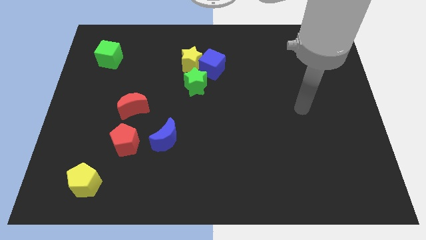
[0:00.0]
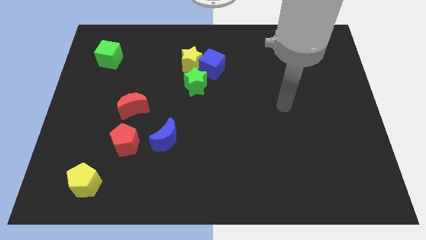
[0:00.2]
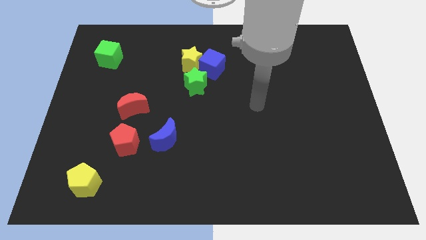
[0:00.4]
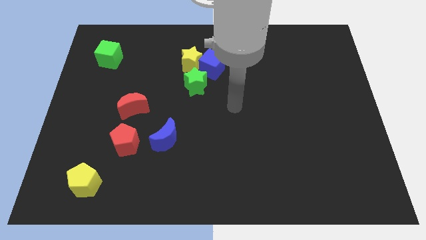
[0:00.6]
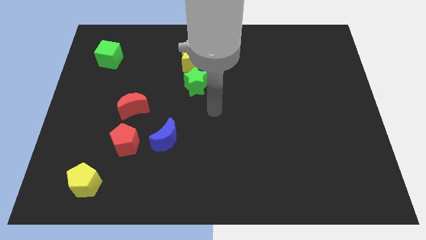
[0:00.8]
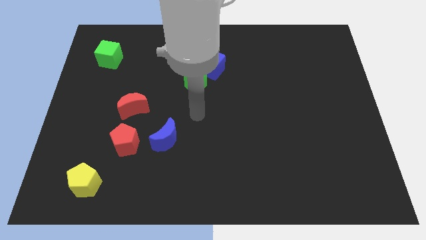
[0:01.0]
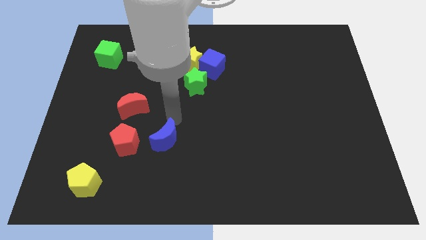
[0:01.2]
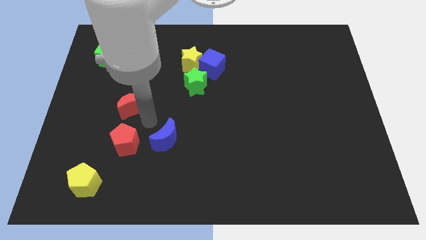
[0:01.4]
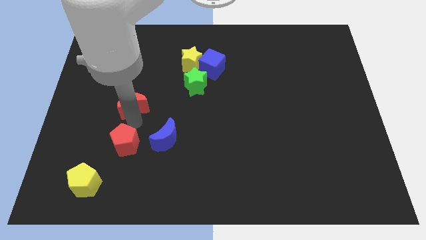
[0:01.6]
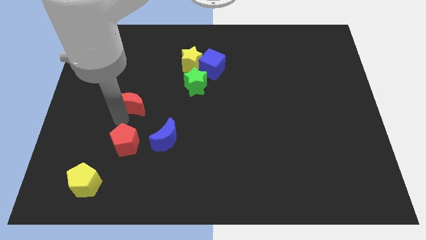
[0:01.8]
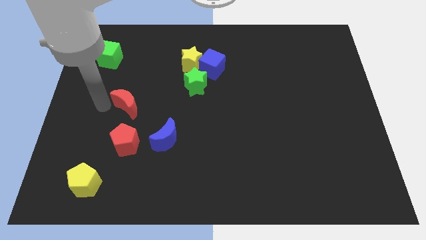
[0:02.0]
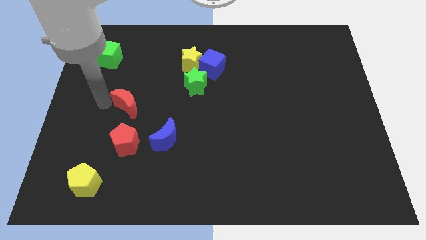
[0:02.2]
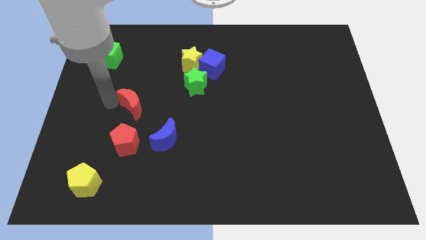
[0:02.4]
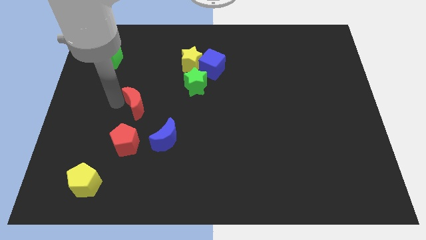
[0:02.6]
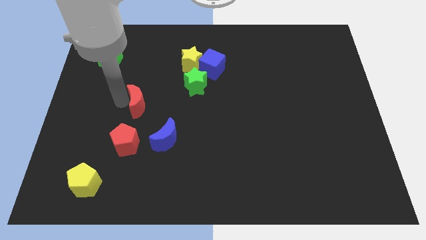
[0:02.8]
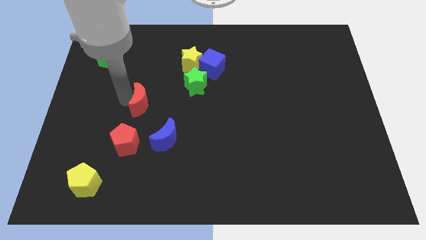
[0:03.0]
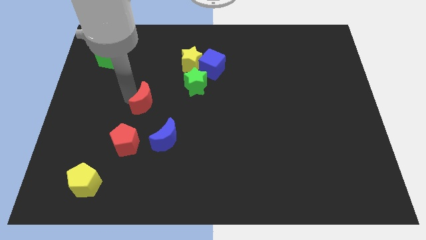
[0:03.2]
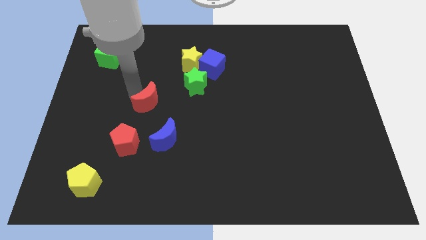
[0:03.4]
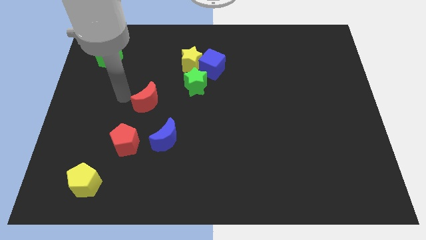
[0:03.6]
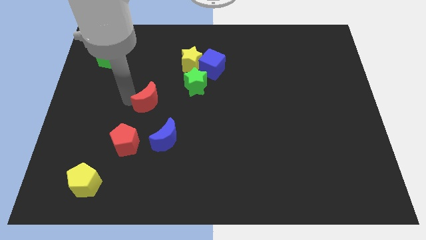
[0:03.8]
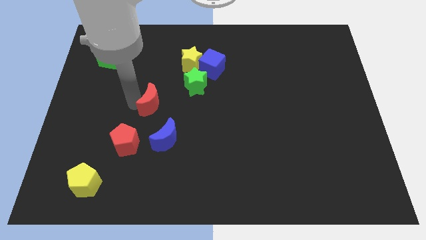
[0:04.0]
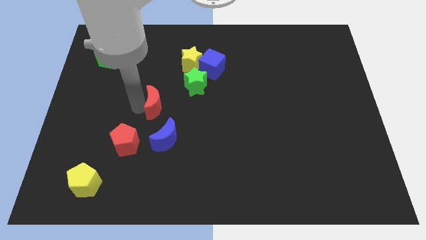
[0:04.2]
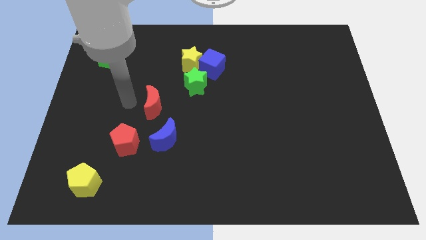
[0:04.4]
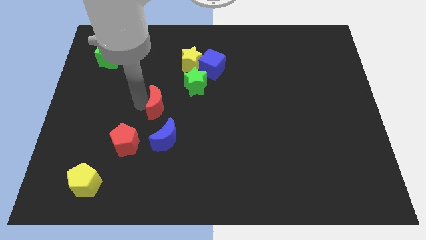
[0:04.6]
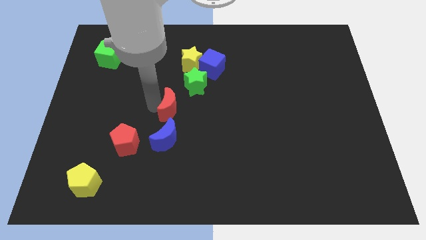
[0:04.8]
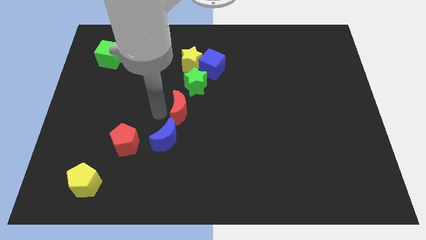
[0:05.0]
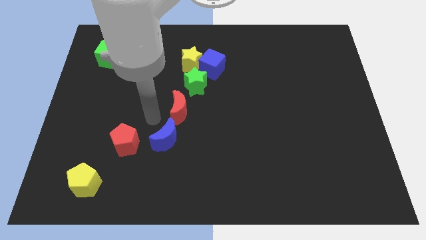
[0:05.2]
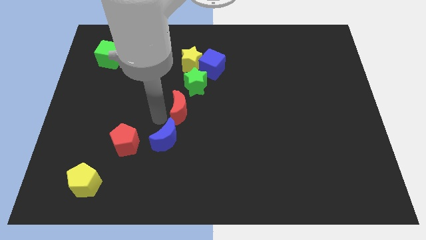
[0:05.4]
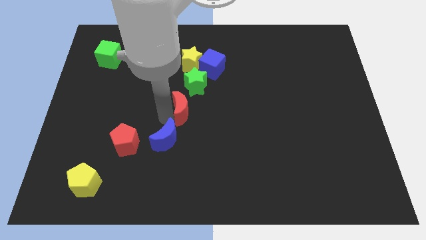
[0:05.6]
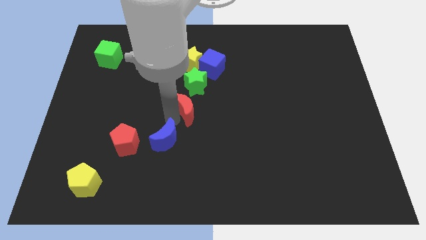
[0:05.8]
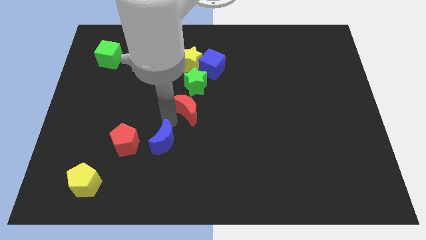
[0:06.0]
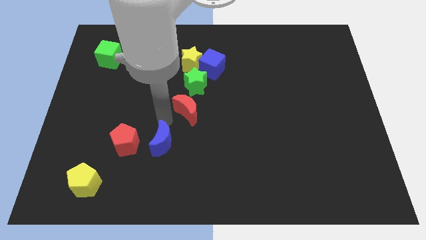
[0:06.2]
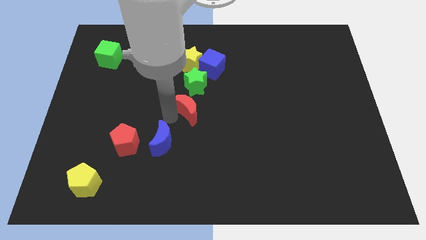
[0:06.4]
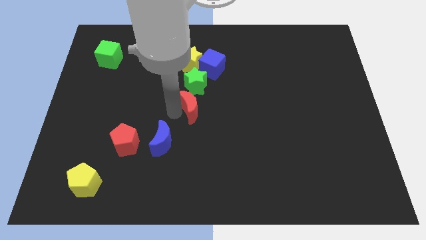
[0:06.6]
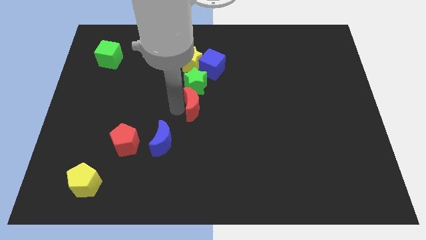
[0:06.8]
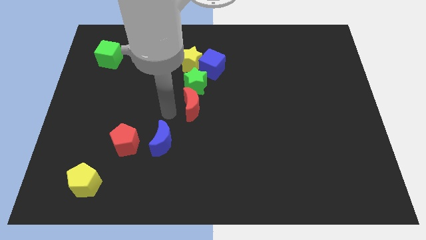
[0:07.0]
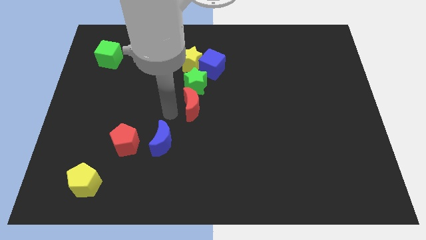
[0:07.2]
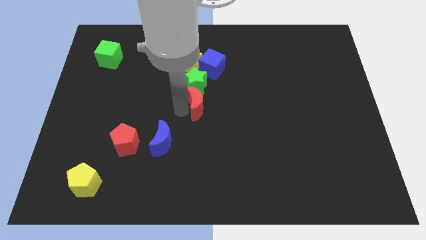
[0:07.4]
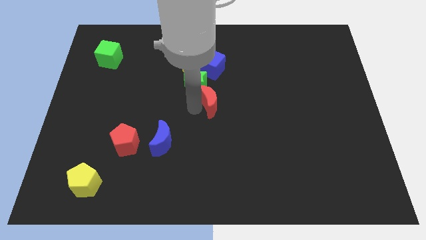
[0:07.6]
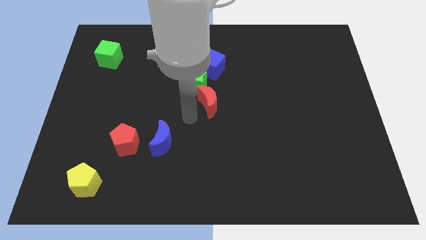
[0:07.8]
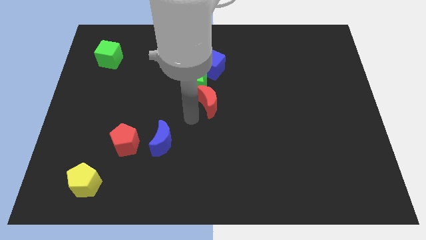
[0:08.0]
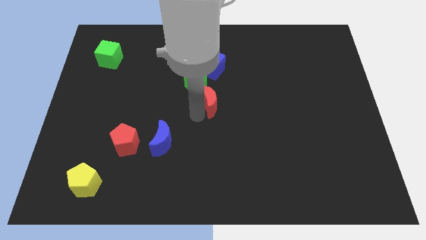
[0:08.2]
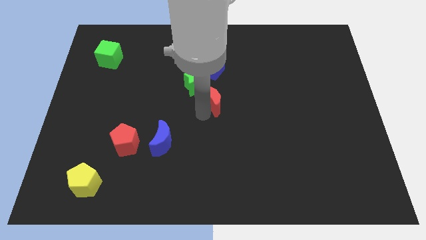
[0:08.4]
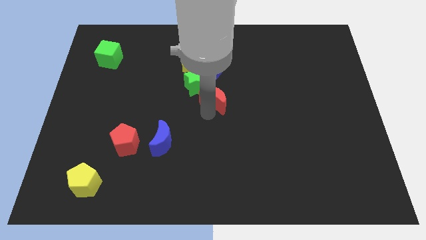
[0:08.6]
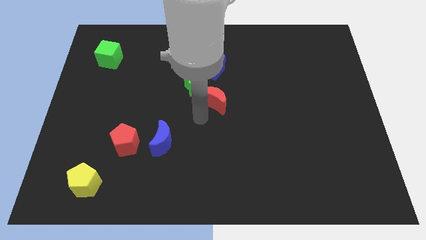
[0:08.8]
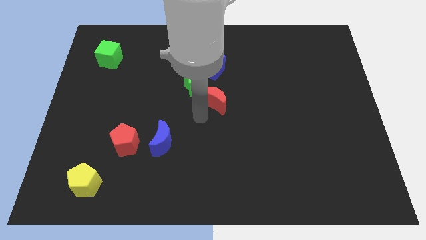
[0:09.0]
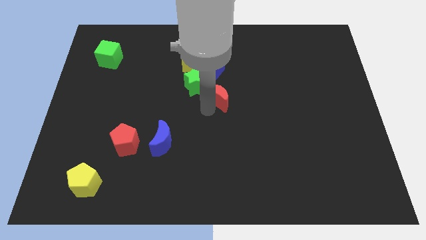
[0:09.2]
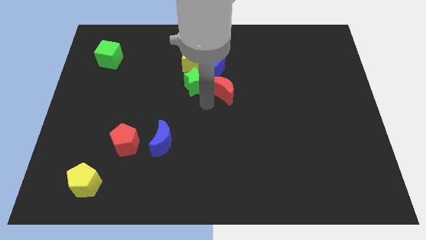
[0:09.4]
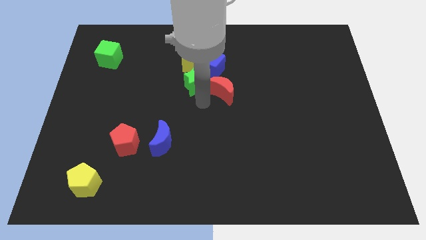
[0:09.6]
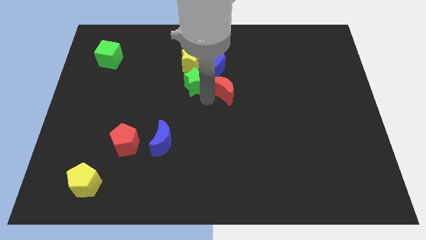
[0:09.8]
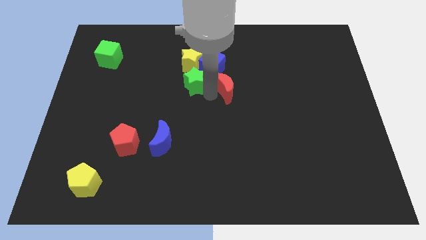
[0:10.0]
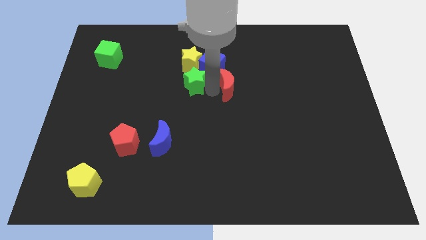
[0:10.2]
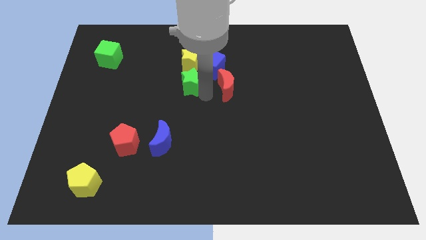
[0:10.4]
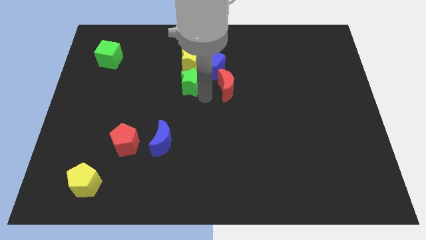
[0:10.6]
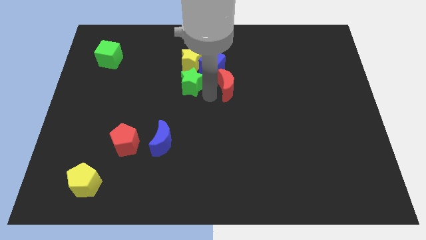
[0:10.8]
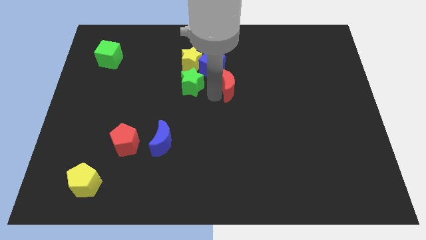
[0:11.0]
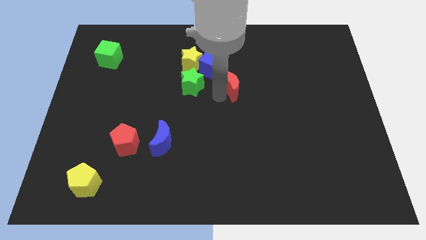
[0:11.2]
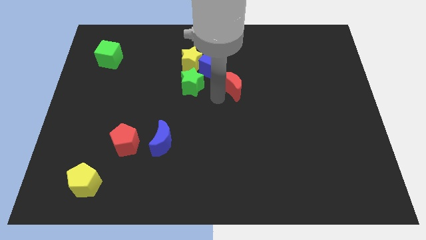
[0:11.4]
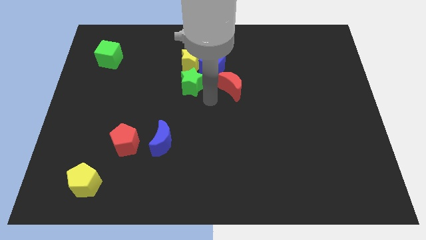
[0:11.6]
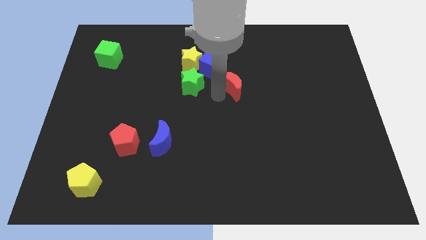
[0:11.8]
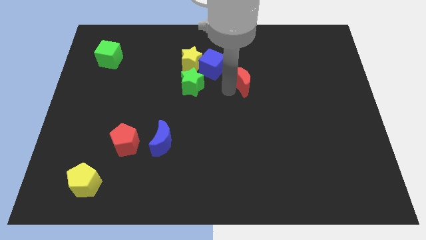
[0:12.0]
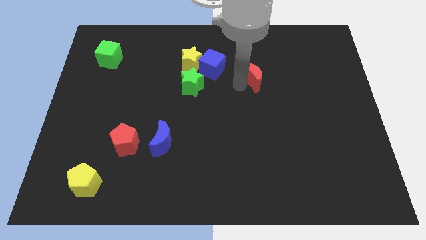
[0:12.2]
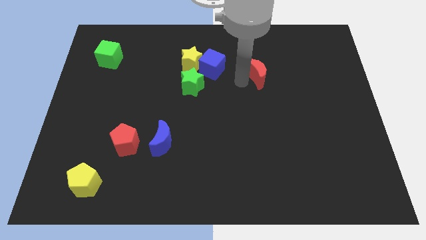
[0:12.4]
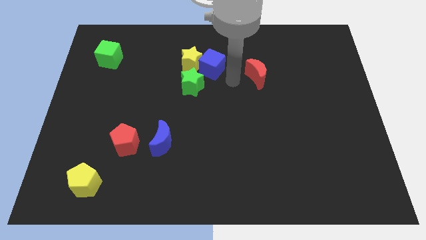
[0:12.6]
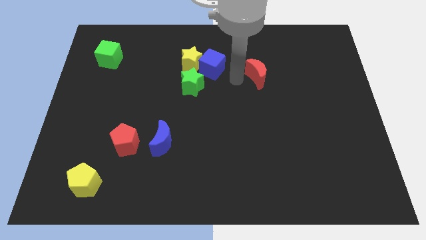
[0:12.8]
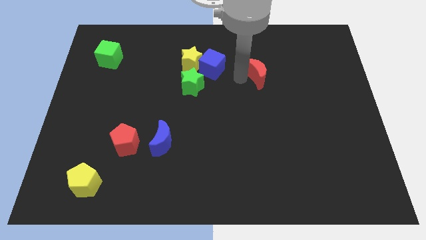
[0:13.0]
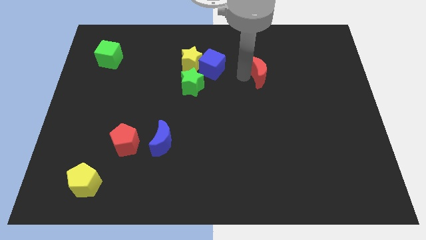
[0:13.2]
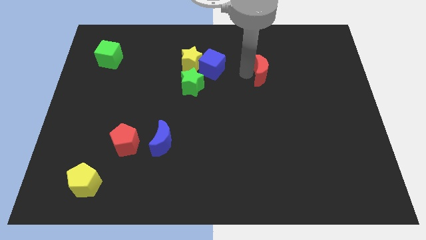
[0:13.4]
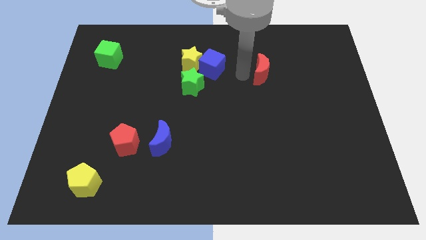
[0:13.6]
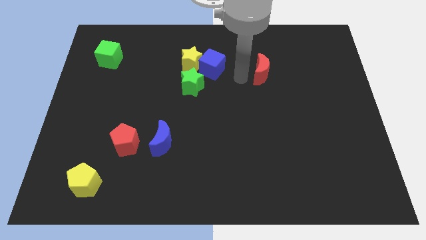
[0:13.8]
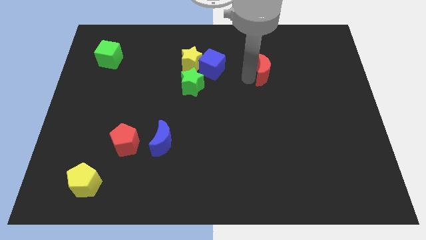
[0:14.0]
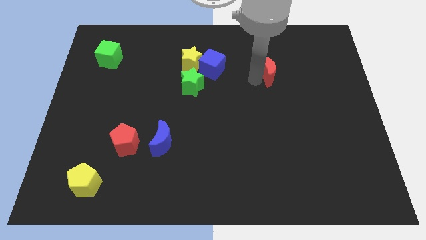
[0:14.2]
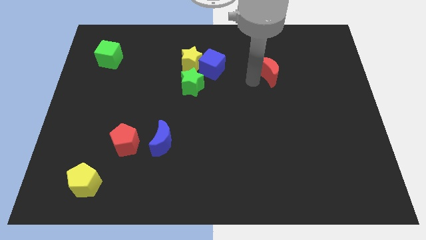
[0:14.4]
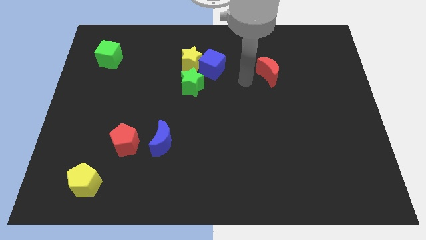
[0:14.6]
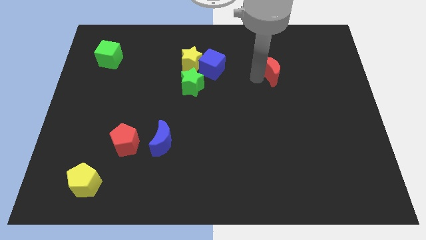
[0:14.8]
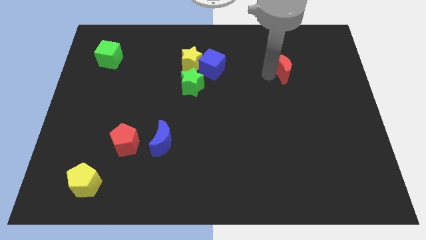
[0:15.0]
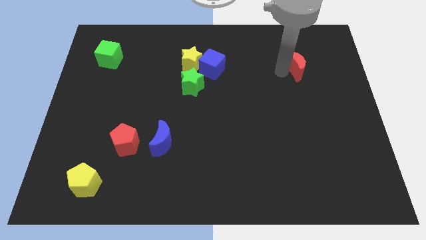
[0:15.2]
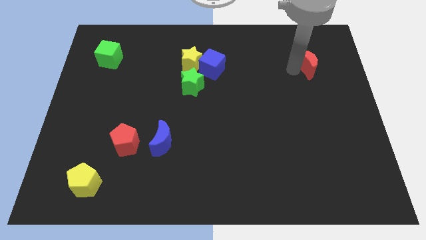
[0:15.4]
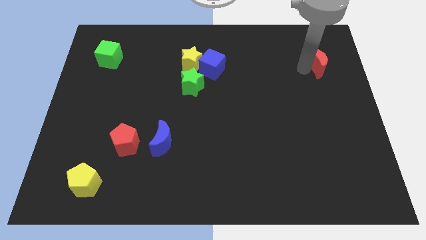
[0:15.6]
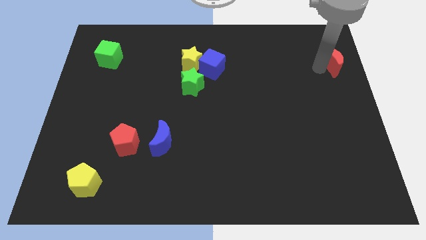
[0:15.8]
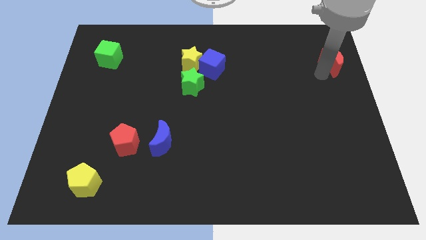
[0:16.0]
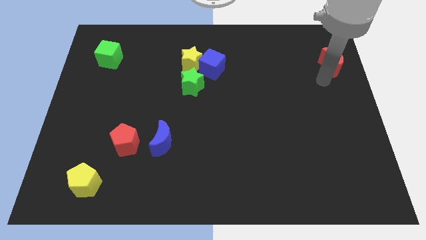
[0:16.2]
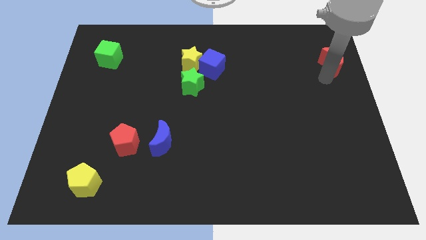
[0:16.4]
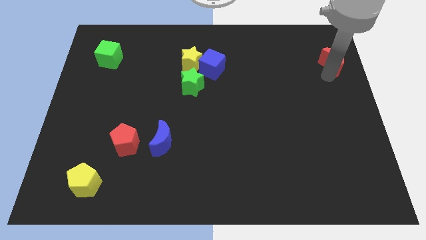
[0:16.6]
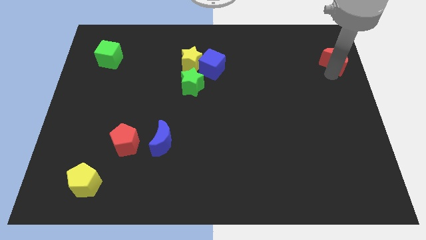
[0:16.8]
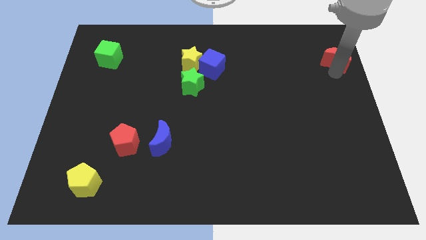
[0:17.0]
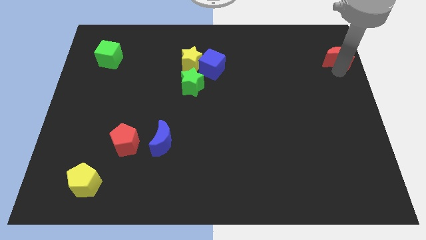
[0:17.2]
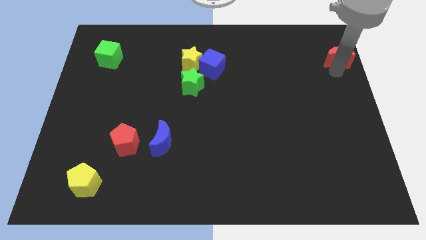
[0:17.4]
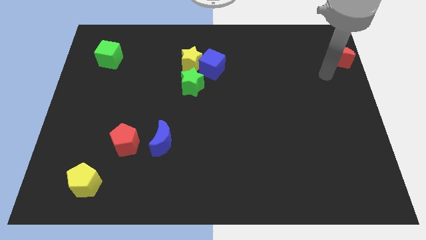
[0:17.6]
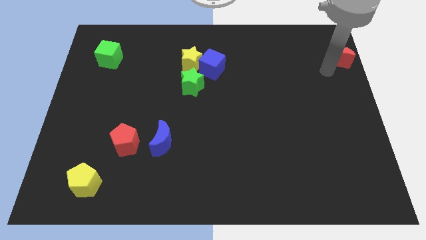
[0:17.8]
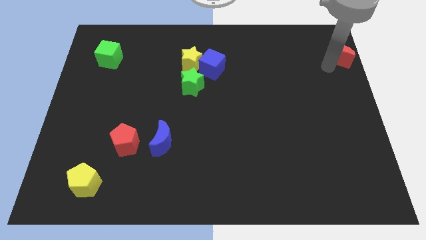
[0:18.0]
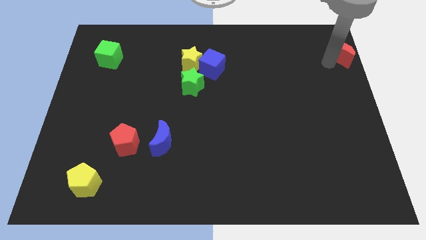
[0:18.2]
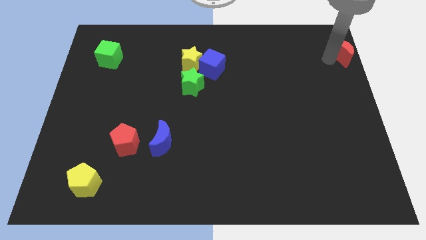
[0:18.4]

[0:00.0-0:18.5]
slide the red moon to the top right
